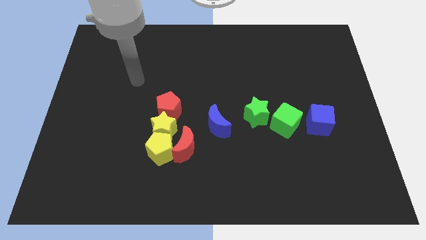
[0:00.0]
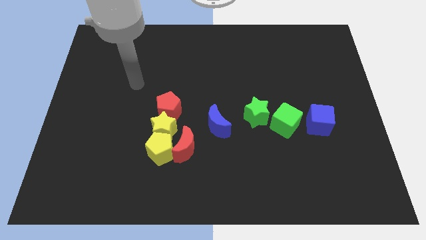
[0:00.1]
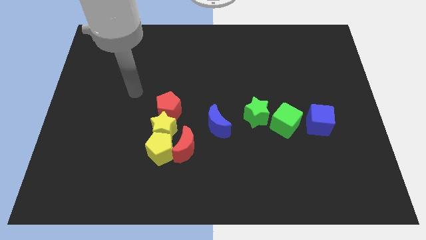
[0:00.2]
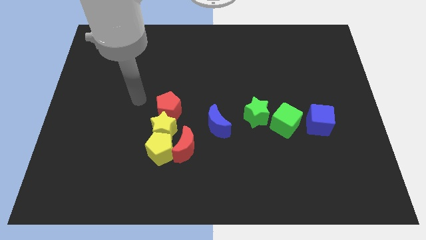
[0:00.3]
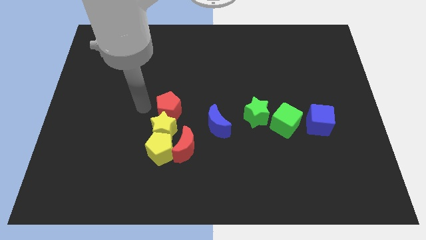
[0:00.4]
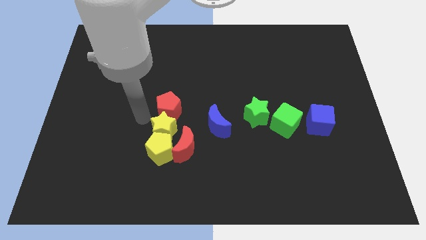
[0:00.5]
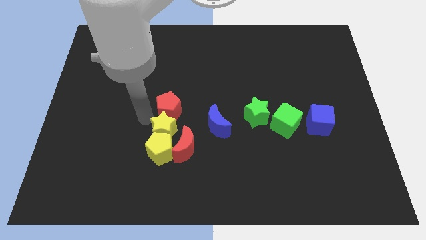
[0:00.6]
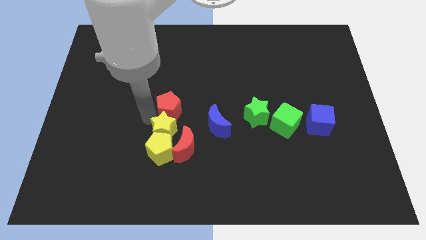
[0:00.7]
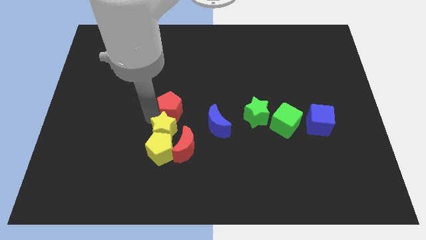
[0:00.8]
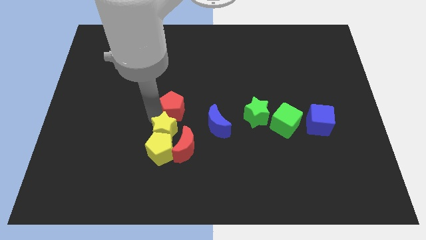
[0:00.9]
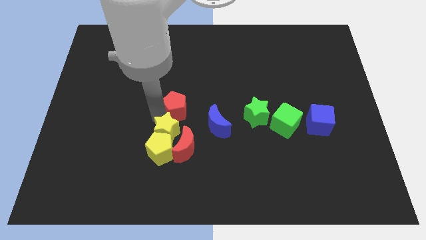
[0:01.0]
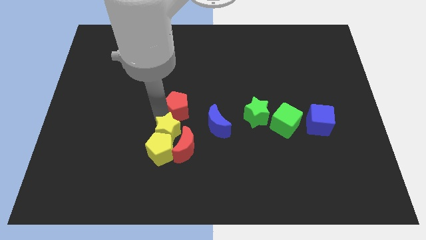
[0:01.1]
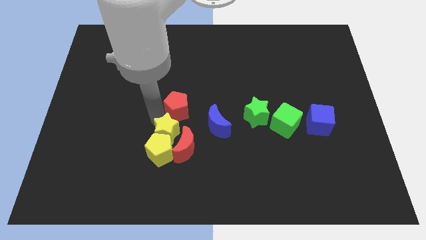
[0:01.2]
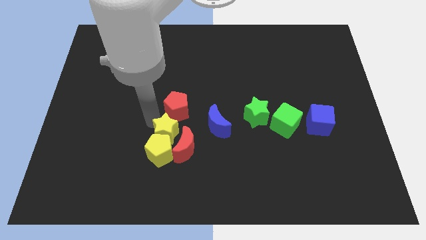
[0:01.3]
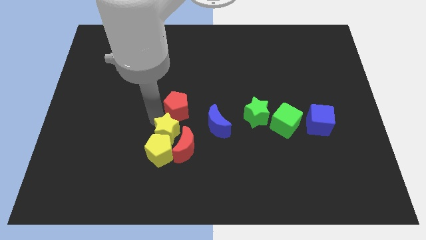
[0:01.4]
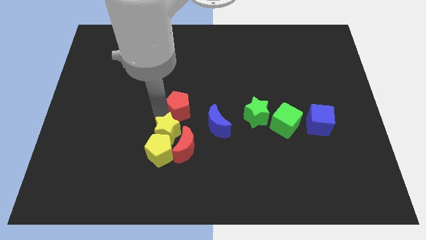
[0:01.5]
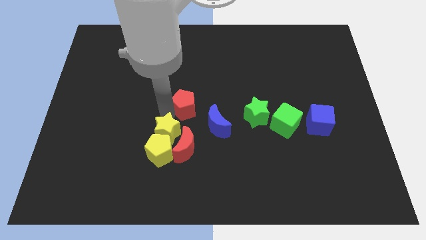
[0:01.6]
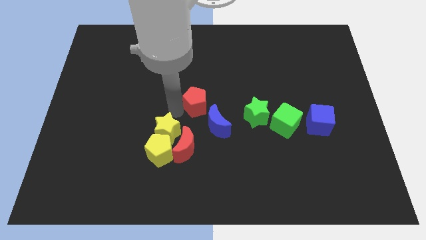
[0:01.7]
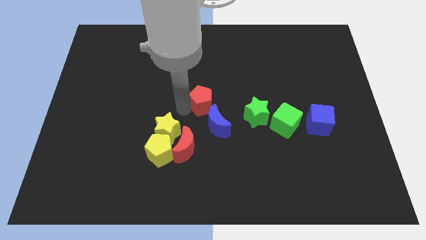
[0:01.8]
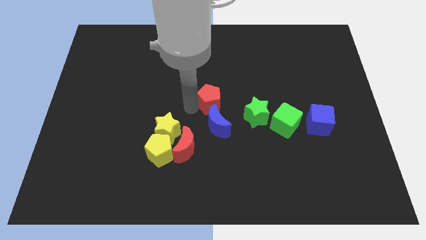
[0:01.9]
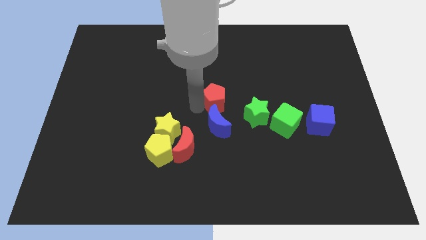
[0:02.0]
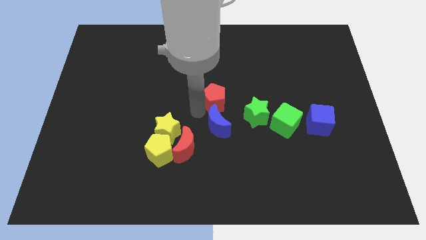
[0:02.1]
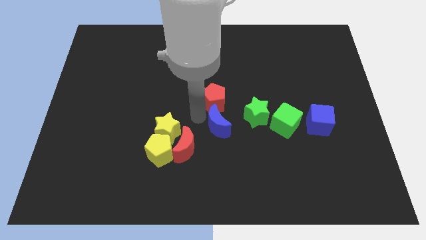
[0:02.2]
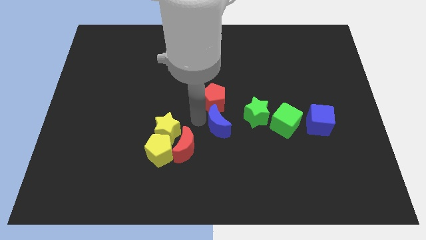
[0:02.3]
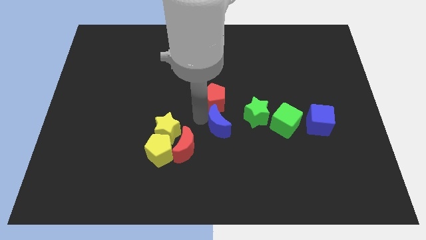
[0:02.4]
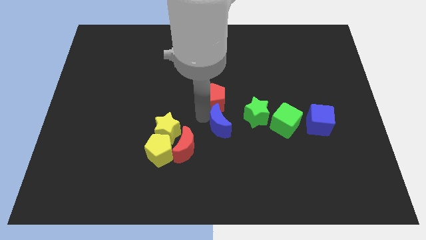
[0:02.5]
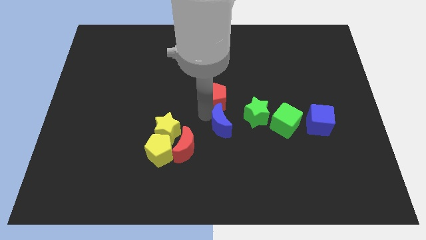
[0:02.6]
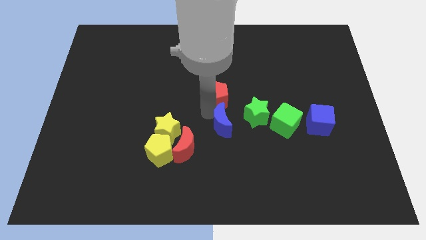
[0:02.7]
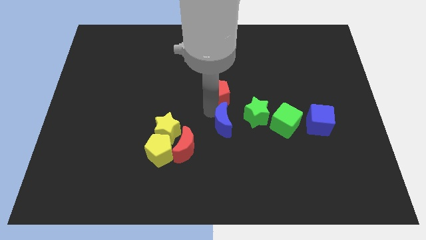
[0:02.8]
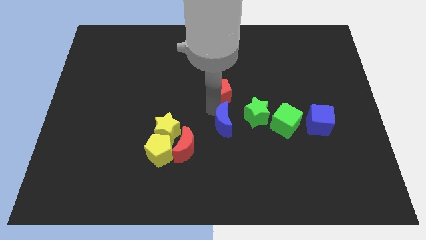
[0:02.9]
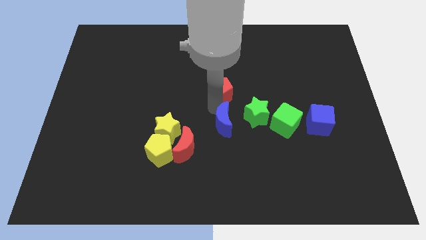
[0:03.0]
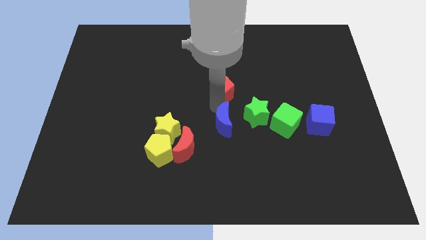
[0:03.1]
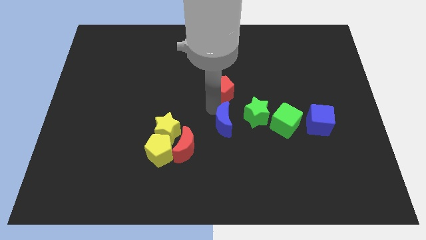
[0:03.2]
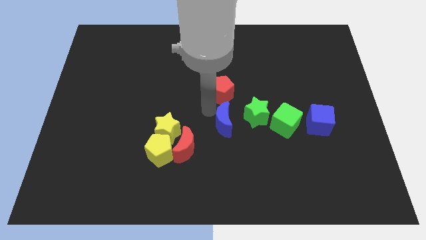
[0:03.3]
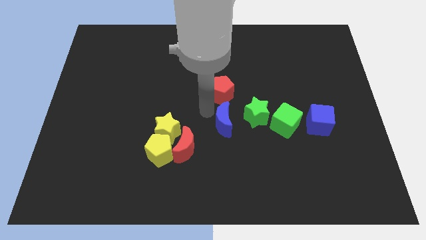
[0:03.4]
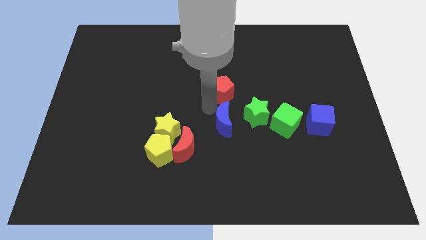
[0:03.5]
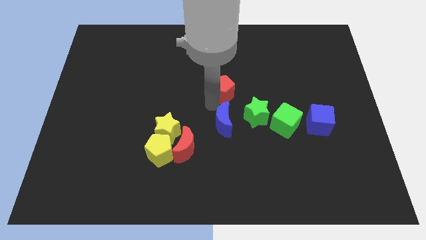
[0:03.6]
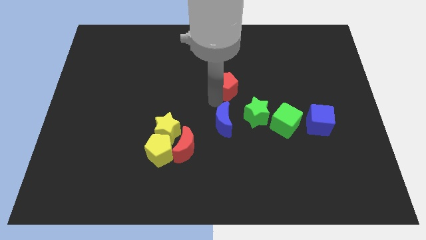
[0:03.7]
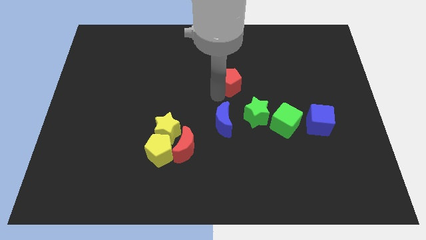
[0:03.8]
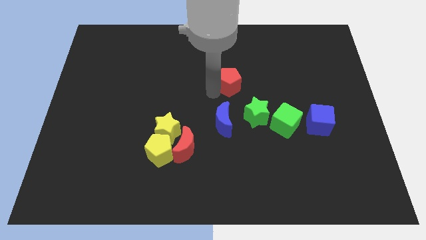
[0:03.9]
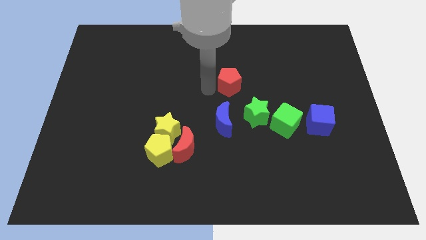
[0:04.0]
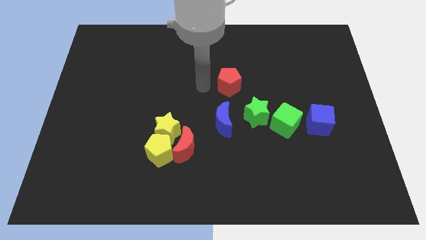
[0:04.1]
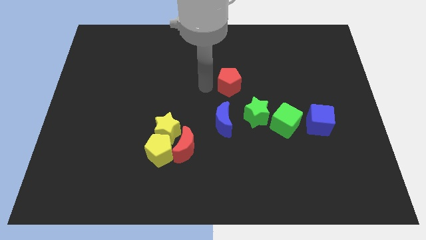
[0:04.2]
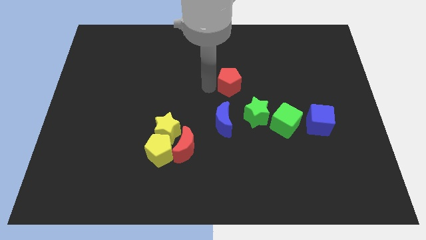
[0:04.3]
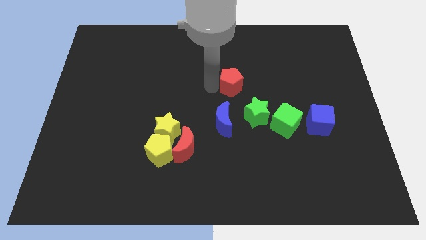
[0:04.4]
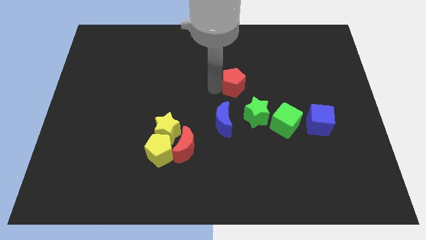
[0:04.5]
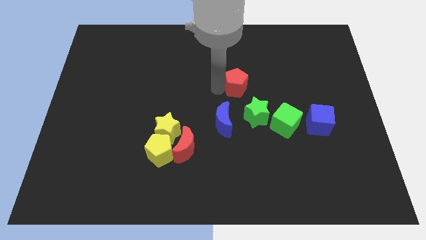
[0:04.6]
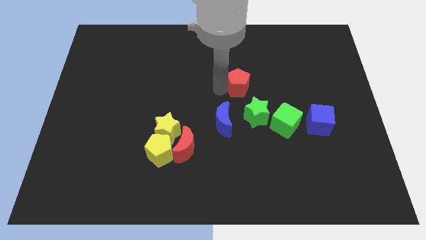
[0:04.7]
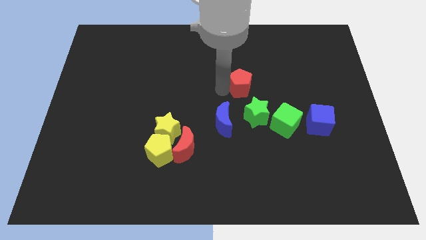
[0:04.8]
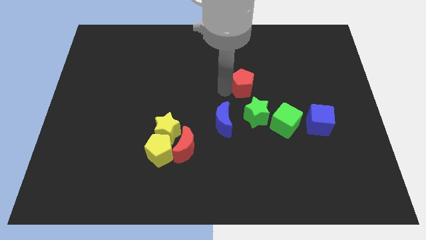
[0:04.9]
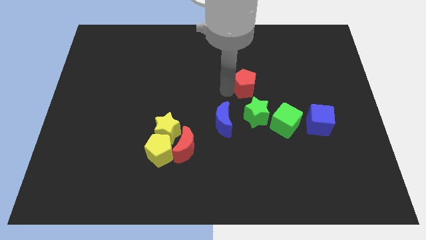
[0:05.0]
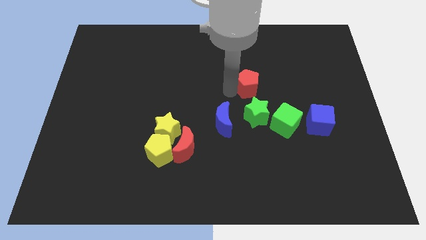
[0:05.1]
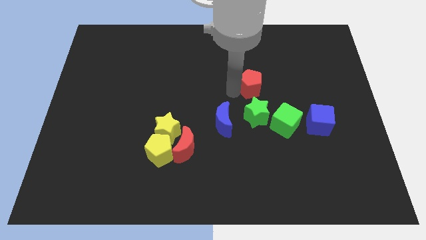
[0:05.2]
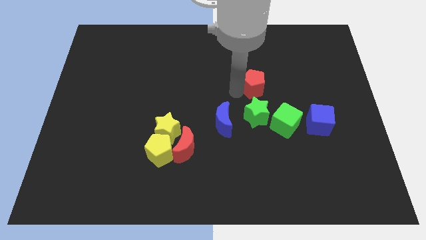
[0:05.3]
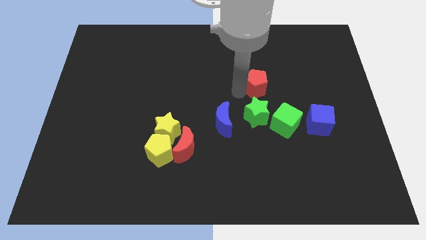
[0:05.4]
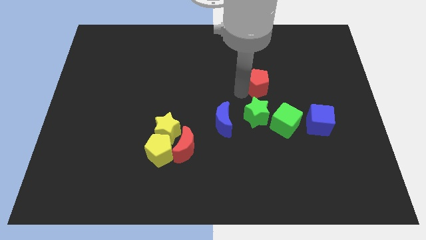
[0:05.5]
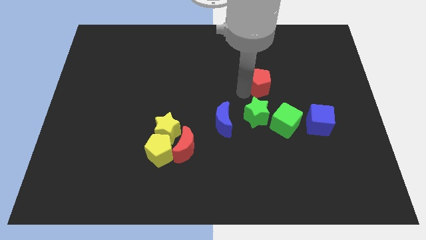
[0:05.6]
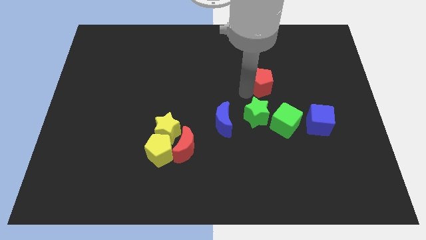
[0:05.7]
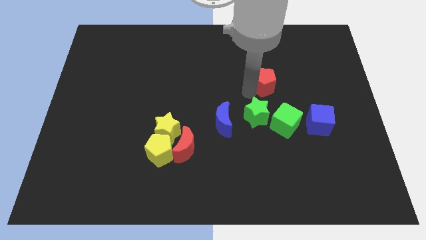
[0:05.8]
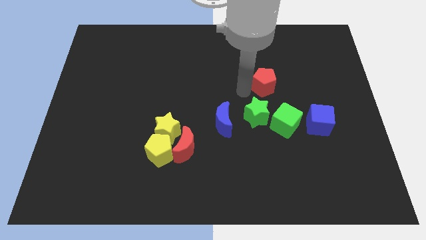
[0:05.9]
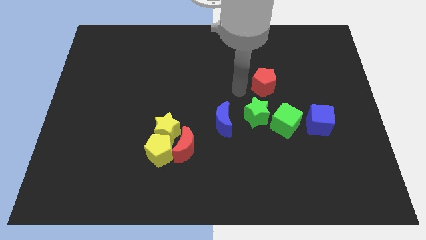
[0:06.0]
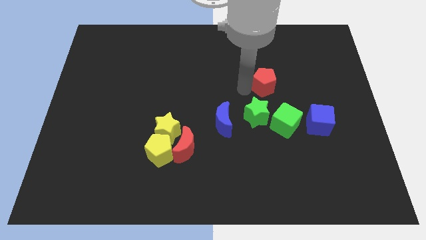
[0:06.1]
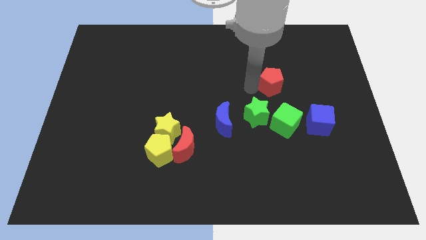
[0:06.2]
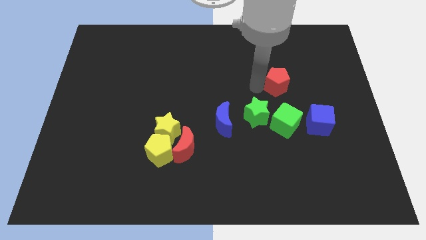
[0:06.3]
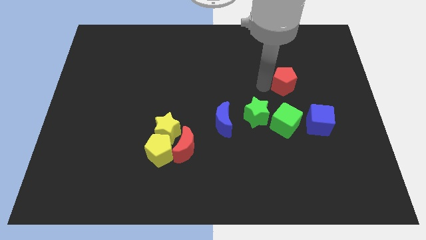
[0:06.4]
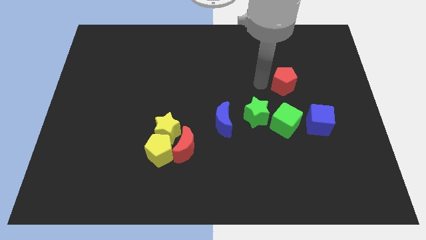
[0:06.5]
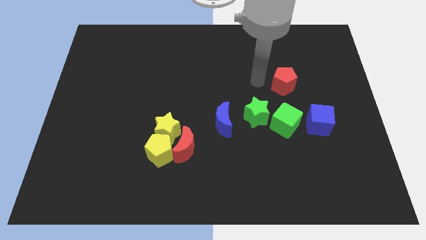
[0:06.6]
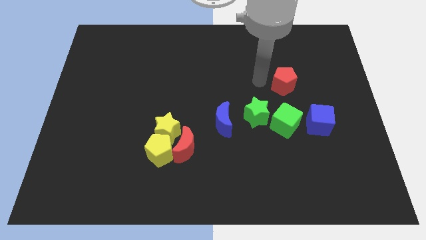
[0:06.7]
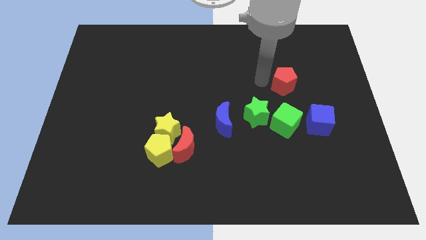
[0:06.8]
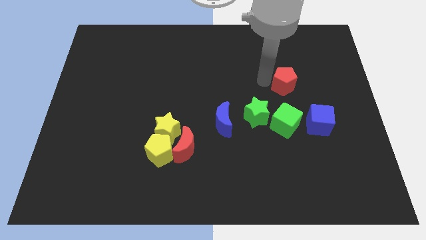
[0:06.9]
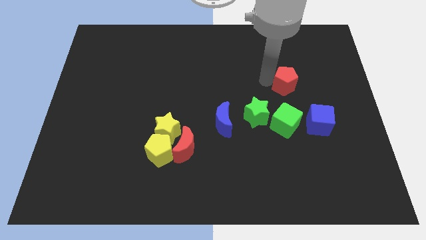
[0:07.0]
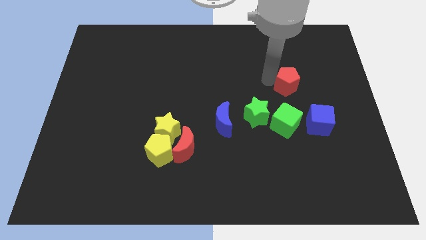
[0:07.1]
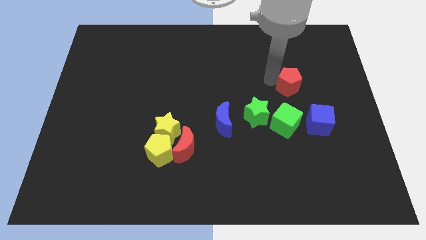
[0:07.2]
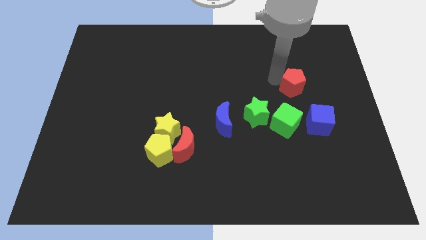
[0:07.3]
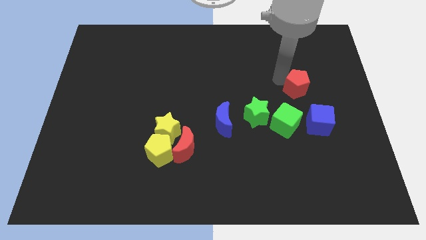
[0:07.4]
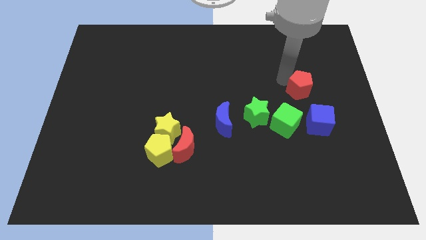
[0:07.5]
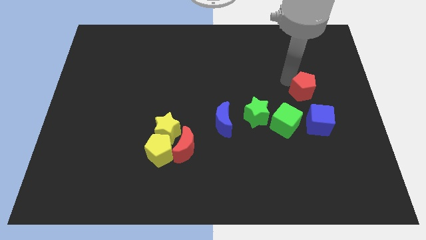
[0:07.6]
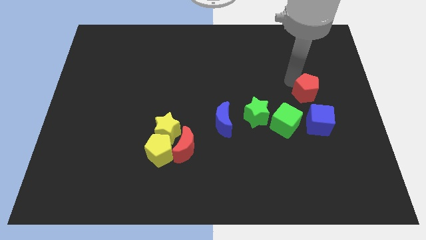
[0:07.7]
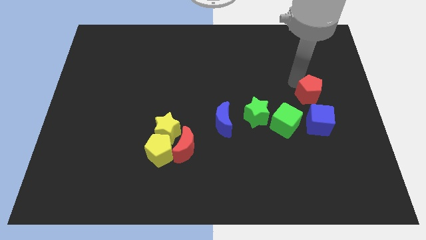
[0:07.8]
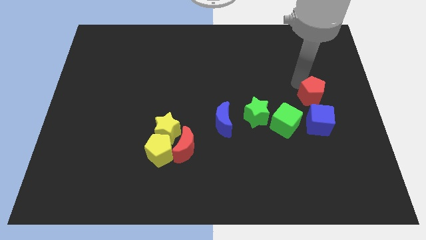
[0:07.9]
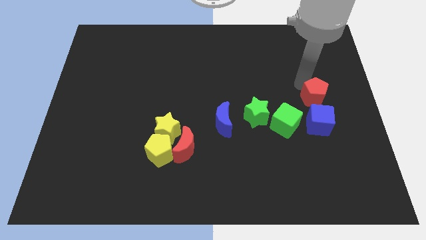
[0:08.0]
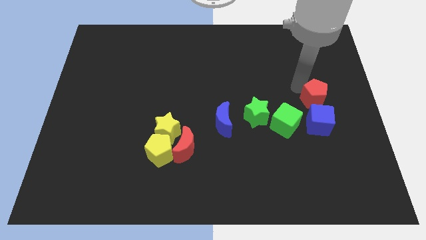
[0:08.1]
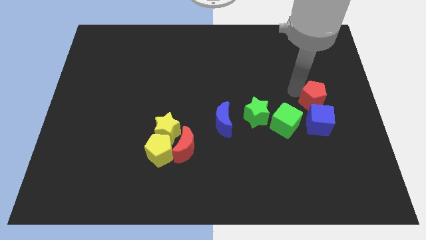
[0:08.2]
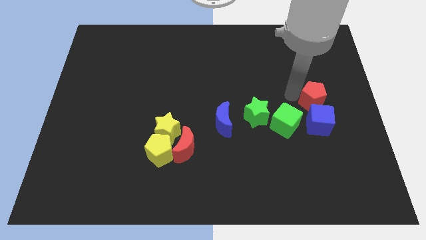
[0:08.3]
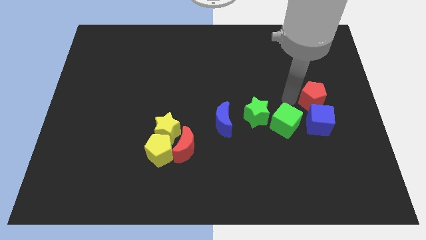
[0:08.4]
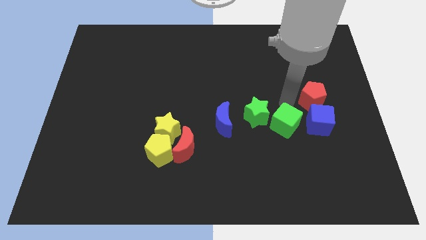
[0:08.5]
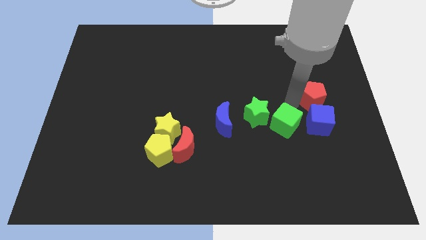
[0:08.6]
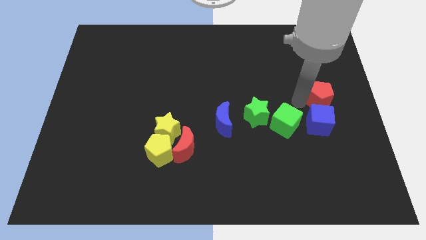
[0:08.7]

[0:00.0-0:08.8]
put the red pentagon to the center right
